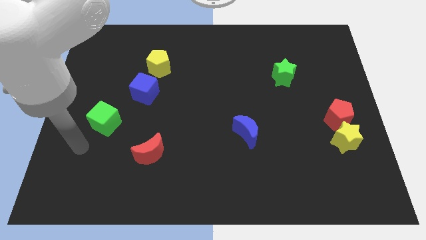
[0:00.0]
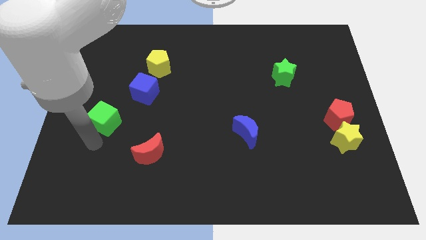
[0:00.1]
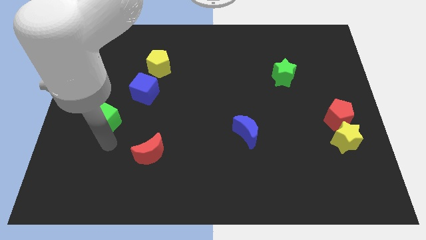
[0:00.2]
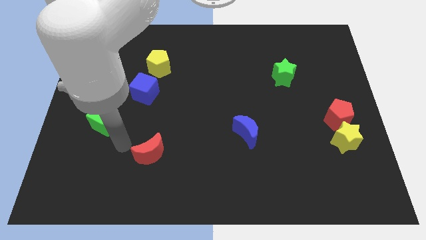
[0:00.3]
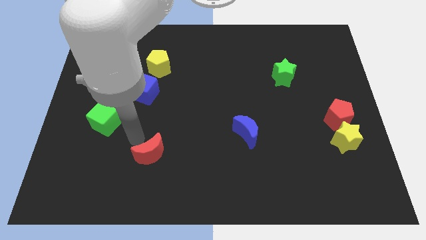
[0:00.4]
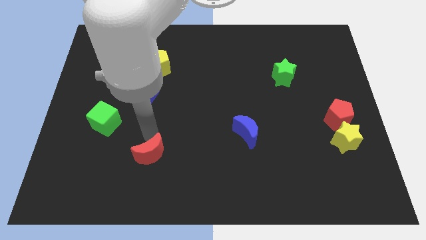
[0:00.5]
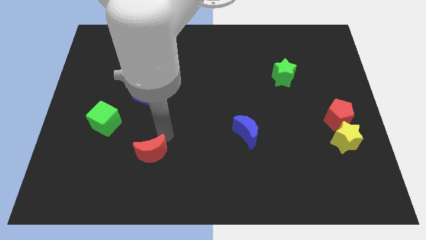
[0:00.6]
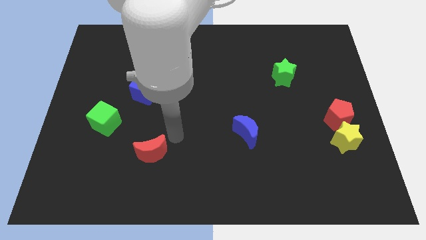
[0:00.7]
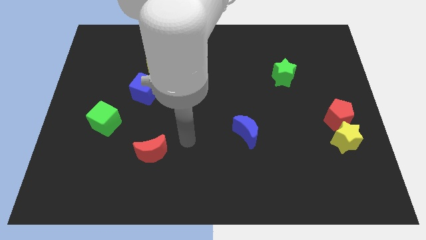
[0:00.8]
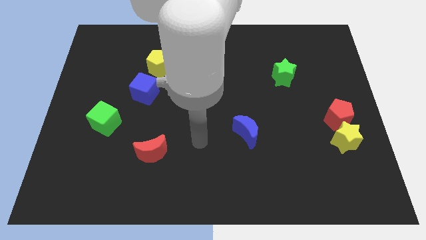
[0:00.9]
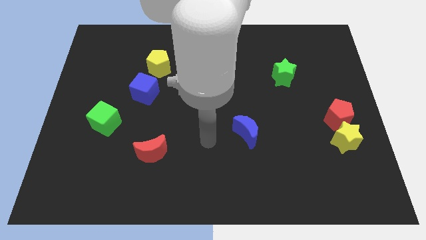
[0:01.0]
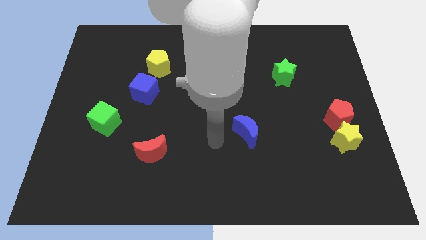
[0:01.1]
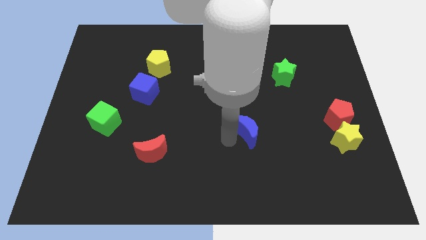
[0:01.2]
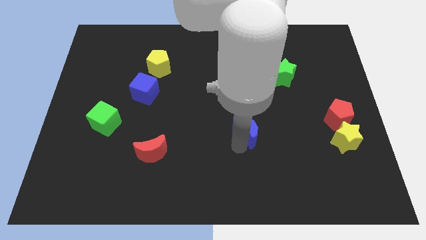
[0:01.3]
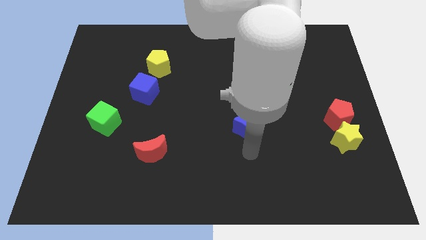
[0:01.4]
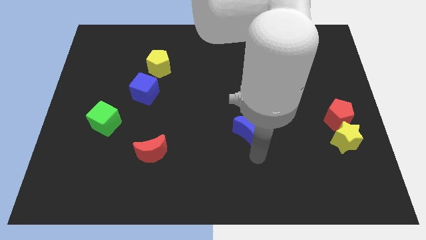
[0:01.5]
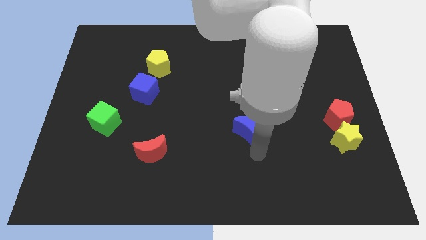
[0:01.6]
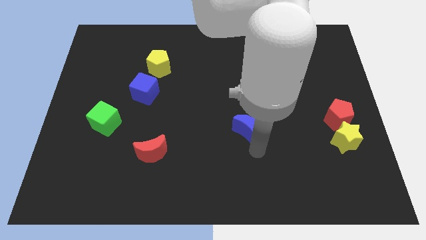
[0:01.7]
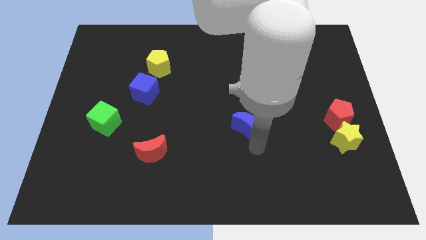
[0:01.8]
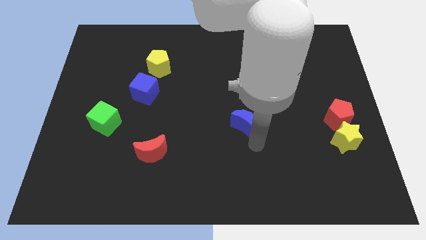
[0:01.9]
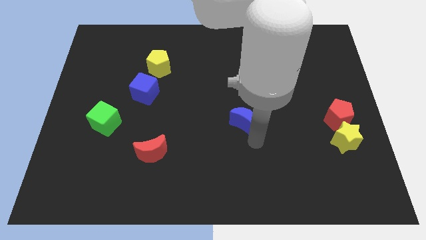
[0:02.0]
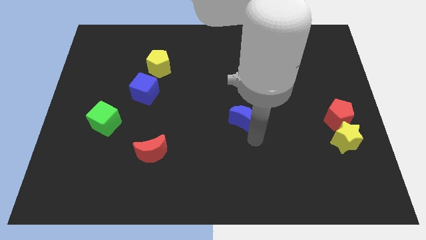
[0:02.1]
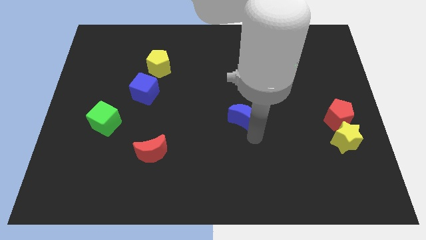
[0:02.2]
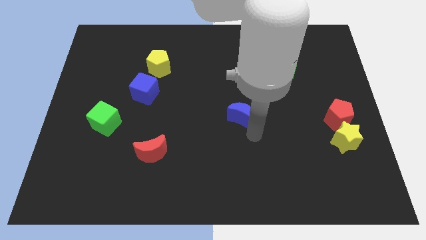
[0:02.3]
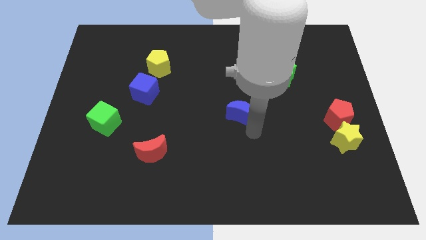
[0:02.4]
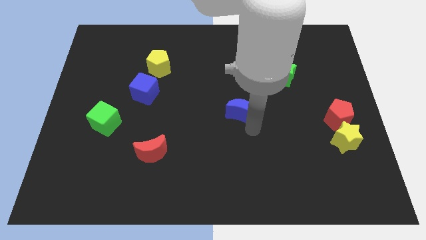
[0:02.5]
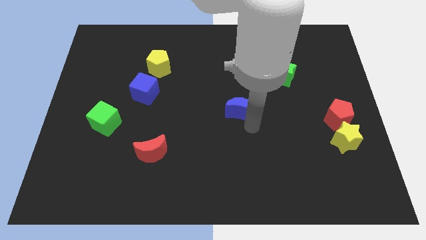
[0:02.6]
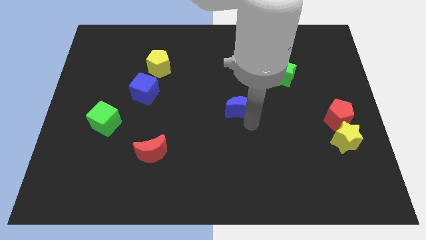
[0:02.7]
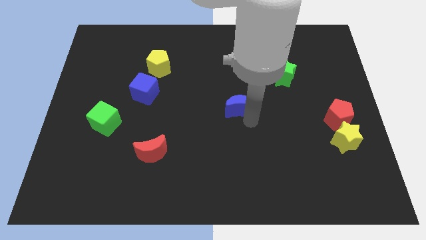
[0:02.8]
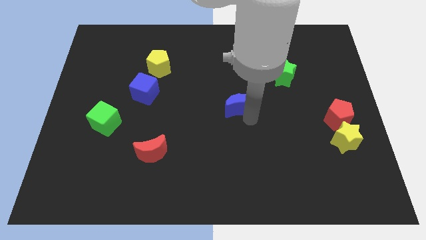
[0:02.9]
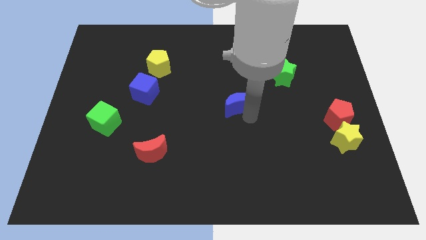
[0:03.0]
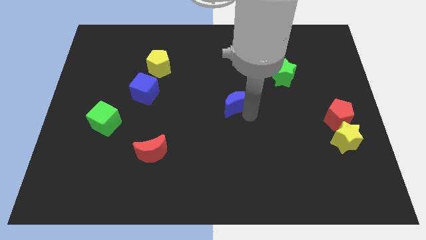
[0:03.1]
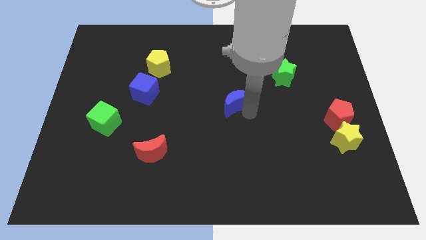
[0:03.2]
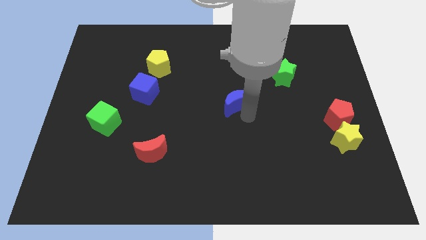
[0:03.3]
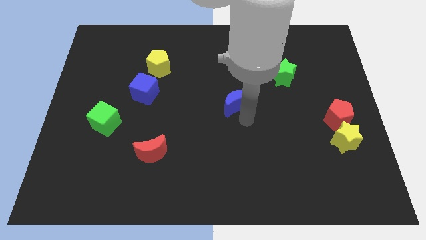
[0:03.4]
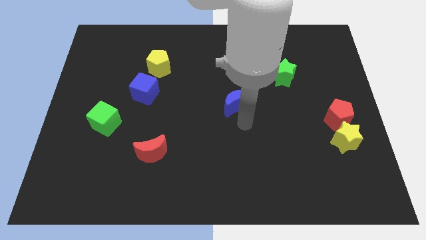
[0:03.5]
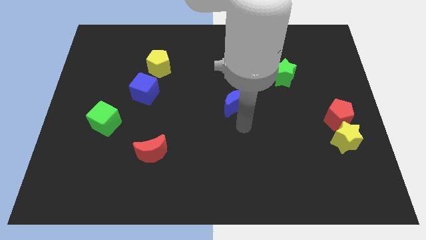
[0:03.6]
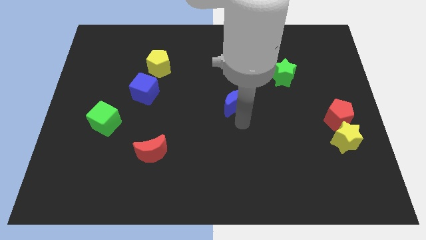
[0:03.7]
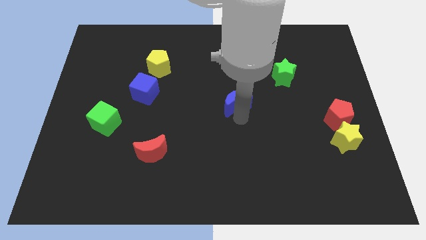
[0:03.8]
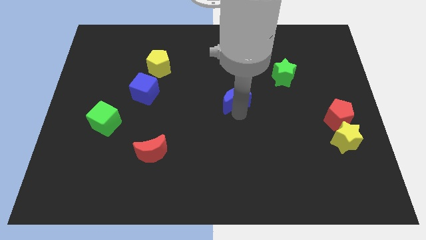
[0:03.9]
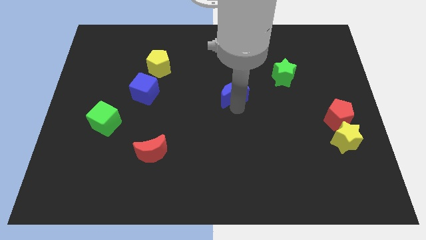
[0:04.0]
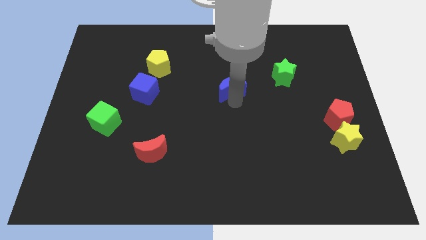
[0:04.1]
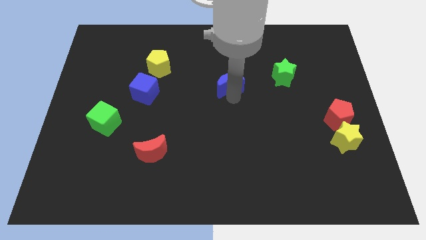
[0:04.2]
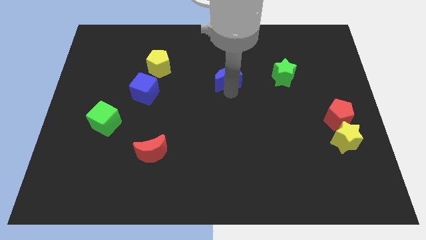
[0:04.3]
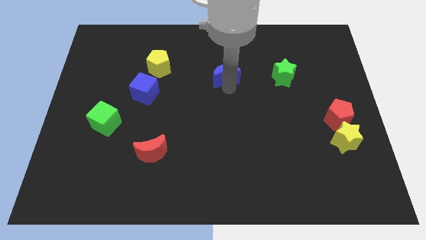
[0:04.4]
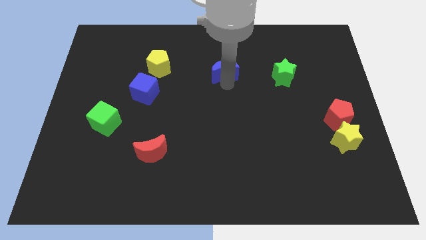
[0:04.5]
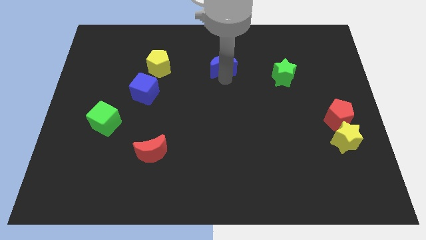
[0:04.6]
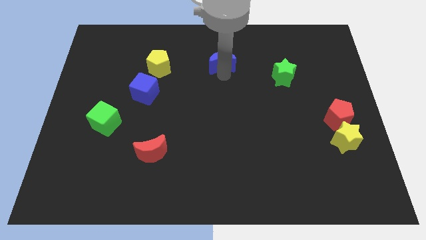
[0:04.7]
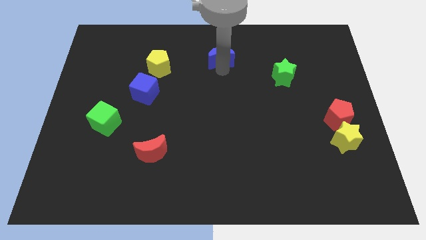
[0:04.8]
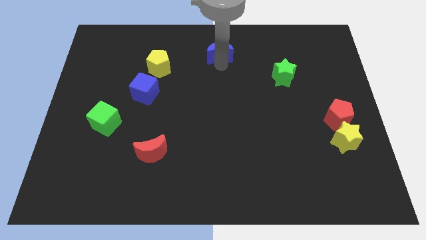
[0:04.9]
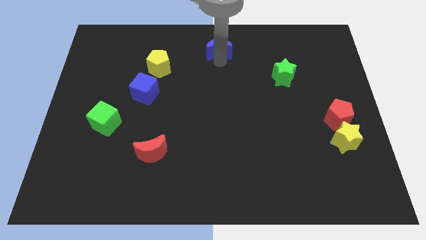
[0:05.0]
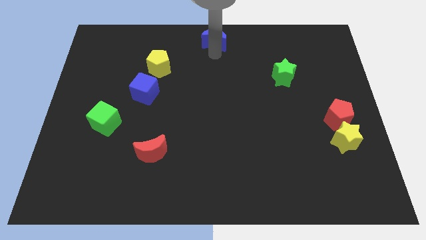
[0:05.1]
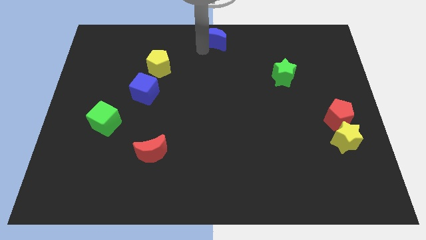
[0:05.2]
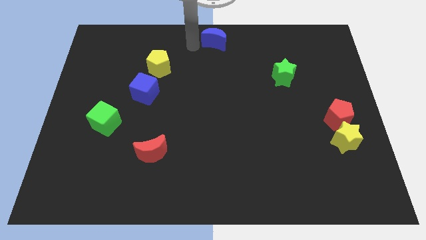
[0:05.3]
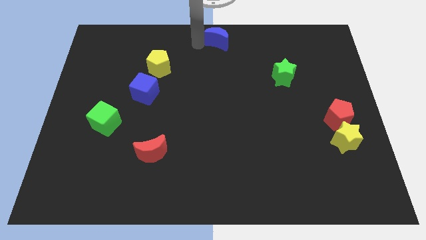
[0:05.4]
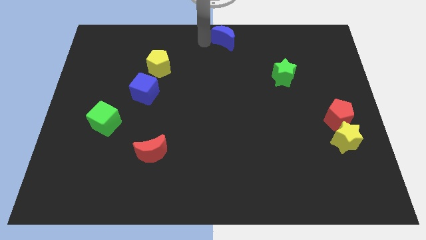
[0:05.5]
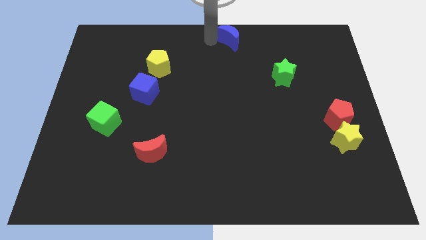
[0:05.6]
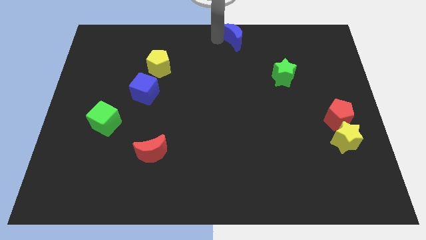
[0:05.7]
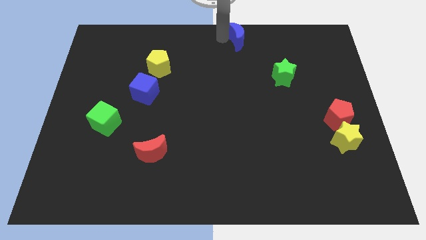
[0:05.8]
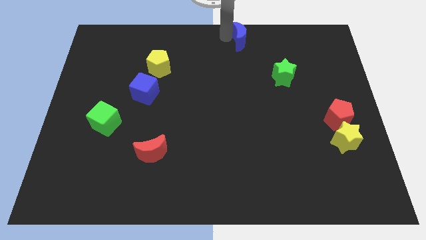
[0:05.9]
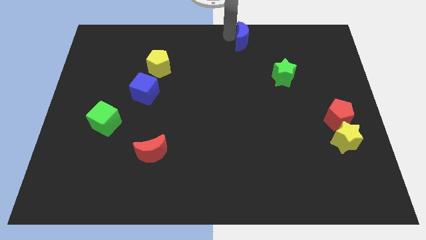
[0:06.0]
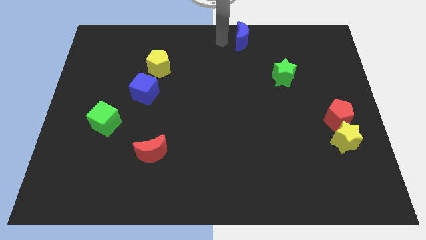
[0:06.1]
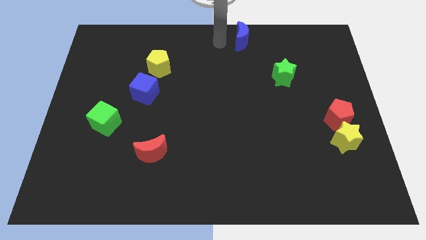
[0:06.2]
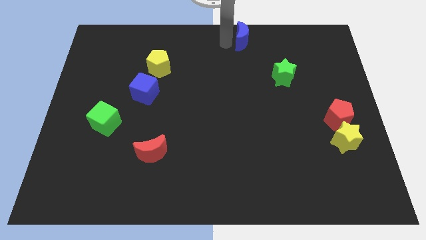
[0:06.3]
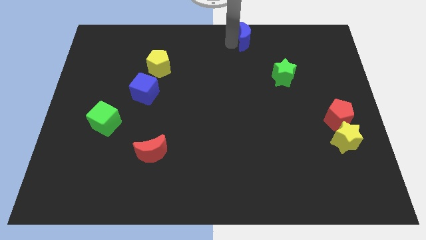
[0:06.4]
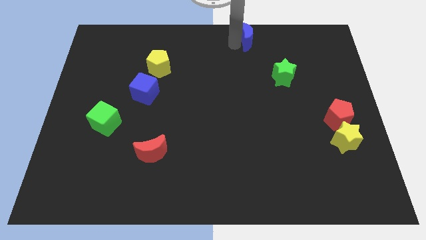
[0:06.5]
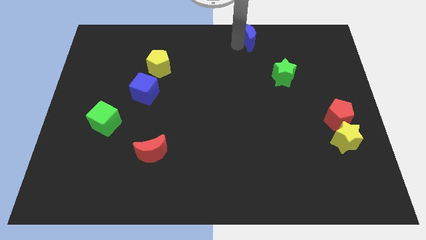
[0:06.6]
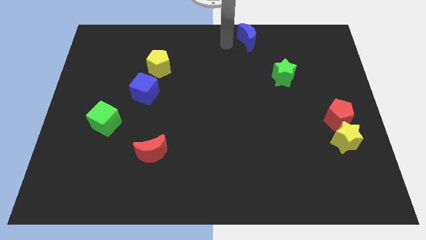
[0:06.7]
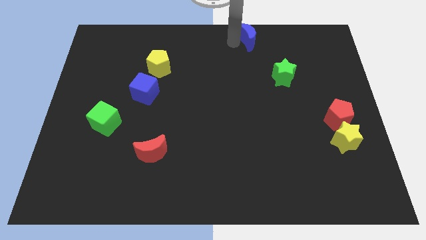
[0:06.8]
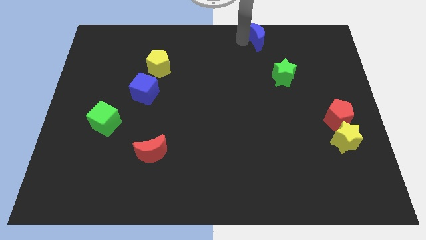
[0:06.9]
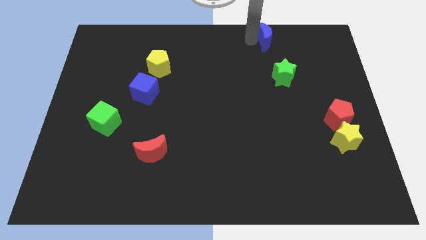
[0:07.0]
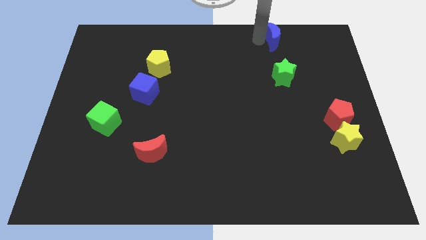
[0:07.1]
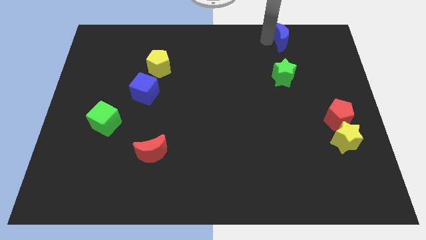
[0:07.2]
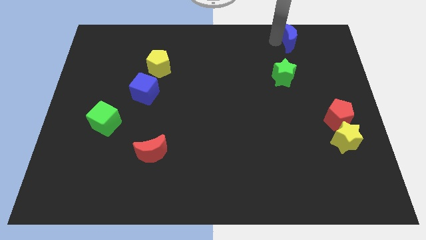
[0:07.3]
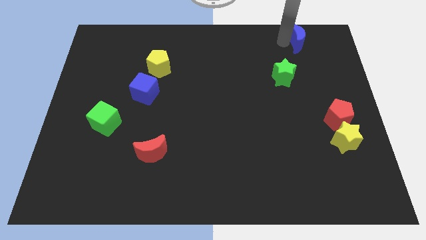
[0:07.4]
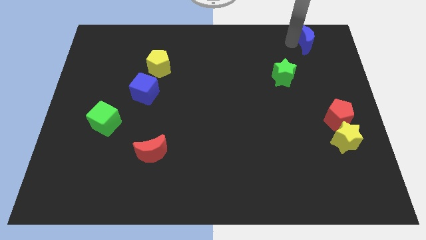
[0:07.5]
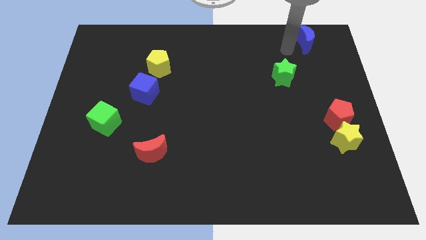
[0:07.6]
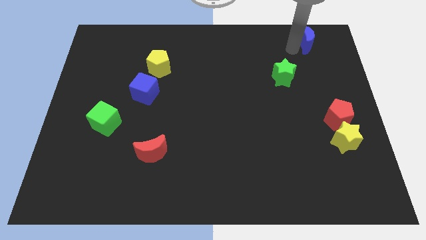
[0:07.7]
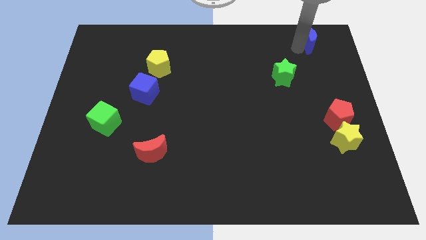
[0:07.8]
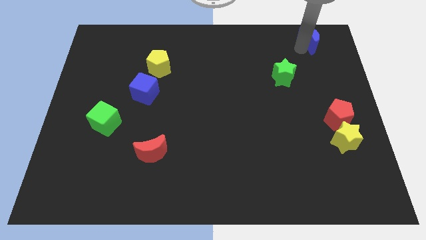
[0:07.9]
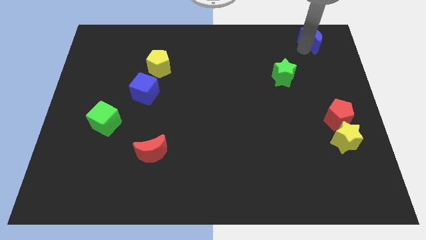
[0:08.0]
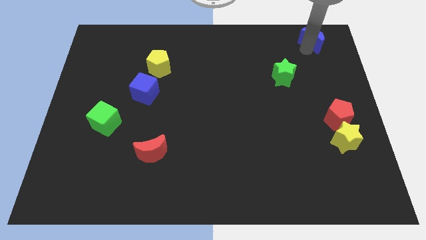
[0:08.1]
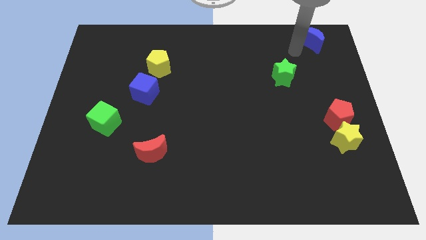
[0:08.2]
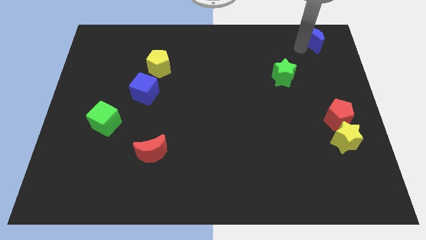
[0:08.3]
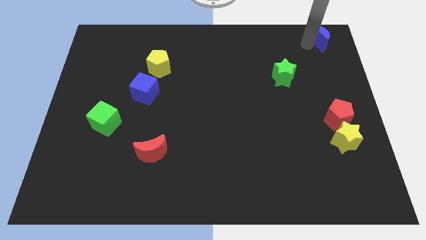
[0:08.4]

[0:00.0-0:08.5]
put the blue moon to the upper right corner
